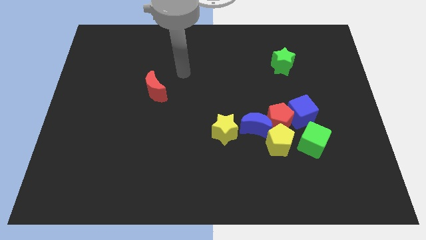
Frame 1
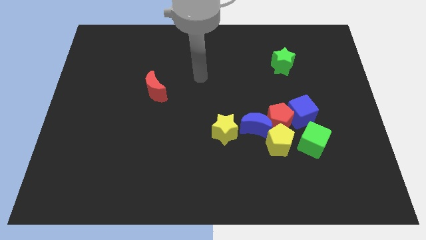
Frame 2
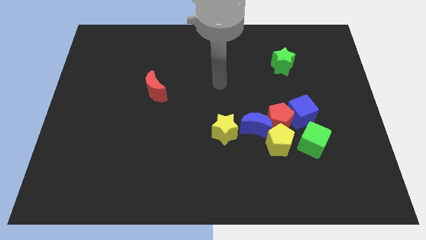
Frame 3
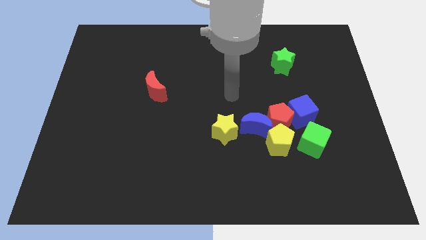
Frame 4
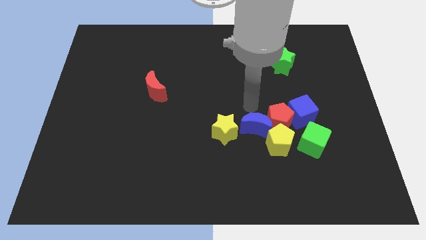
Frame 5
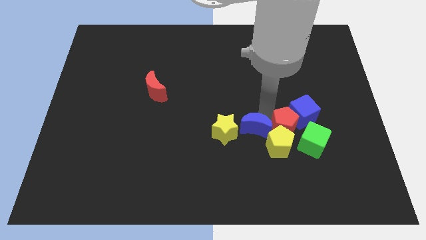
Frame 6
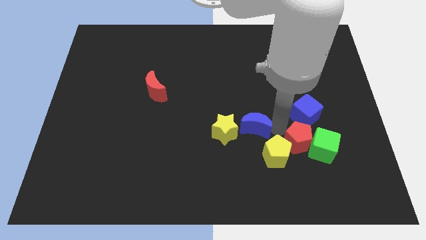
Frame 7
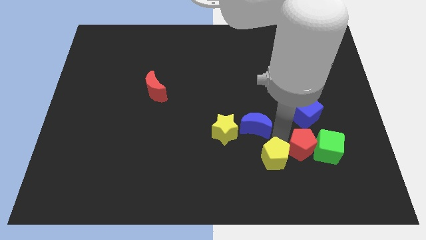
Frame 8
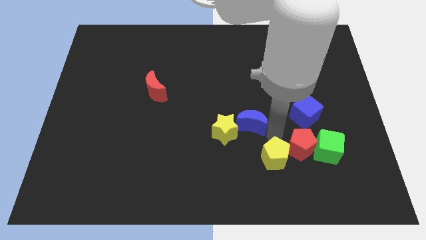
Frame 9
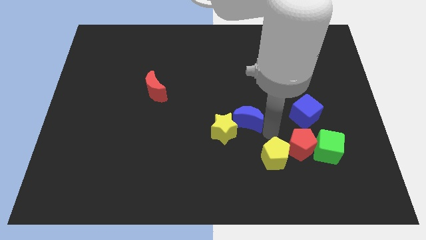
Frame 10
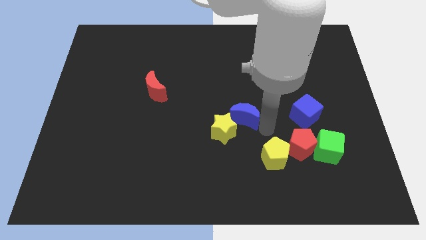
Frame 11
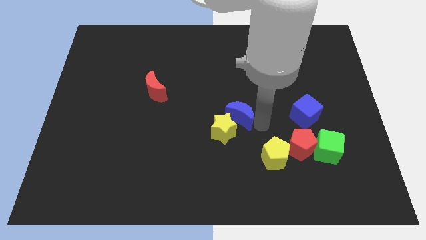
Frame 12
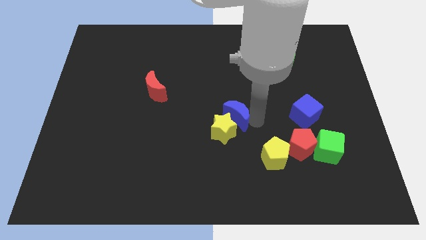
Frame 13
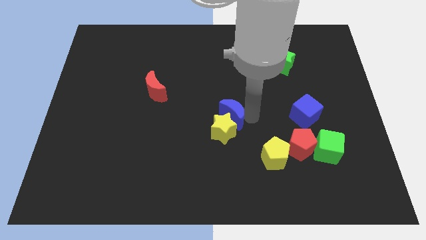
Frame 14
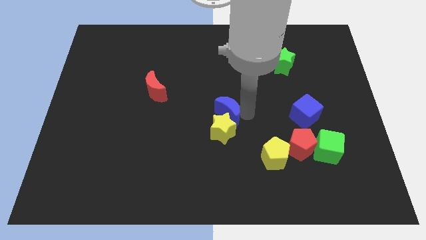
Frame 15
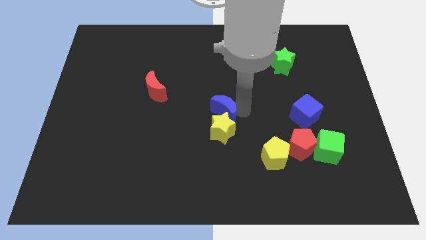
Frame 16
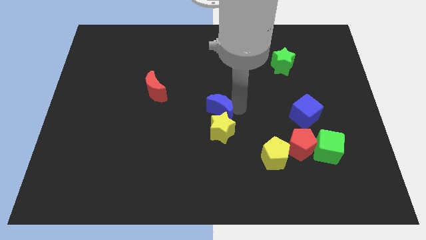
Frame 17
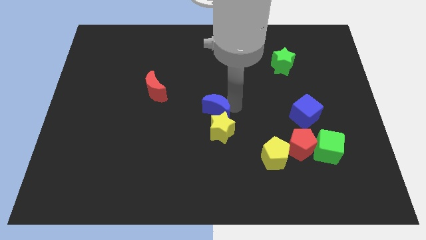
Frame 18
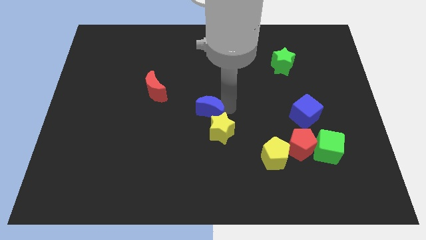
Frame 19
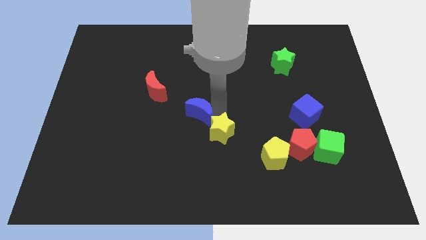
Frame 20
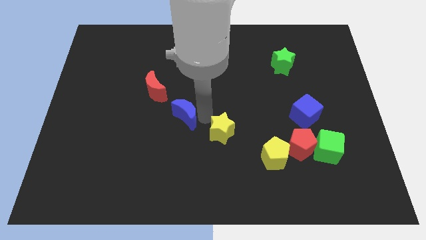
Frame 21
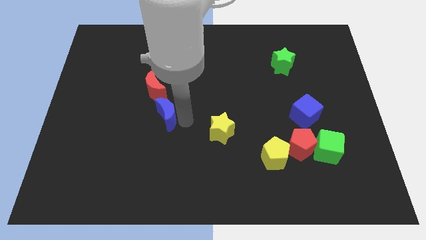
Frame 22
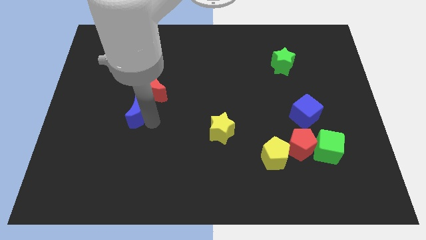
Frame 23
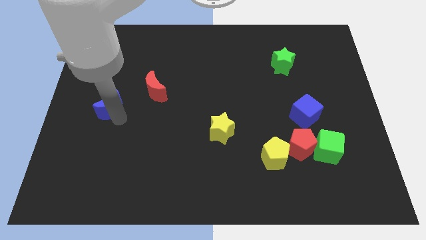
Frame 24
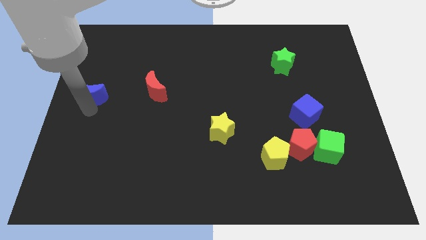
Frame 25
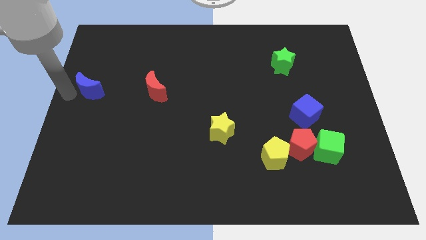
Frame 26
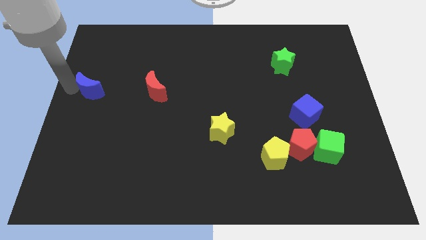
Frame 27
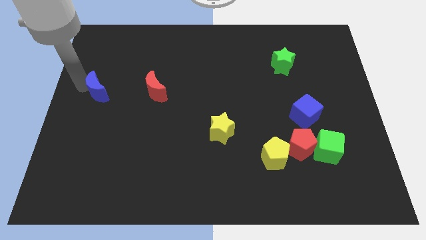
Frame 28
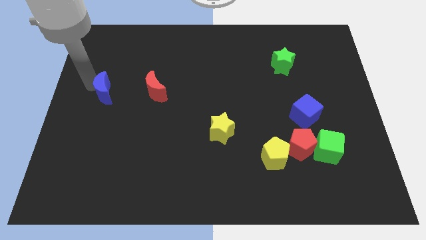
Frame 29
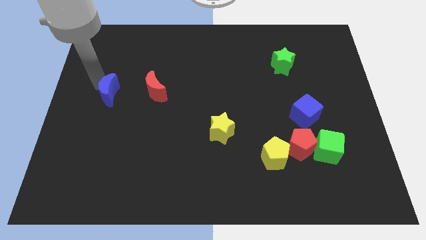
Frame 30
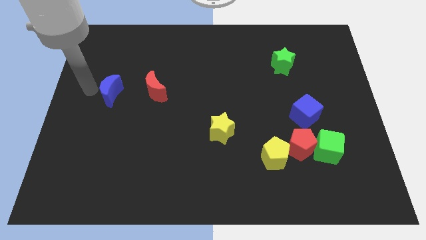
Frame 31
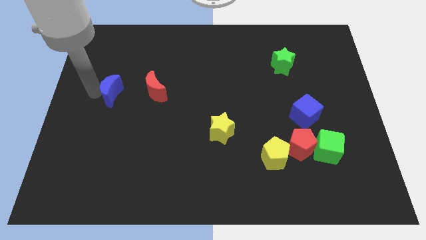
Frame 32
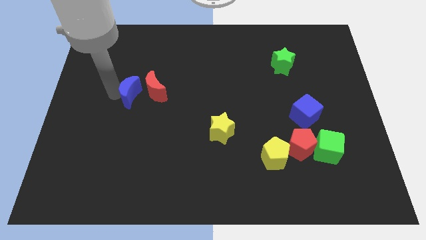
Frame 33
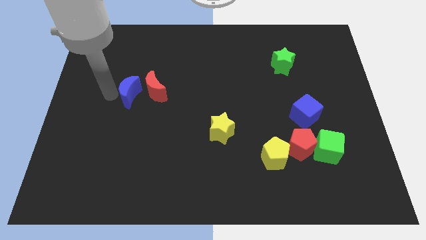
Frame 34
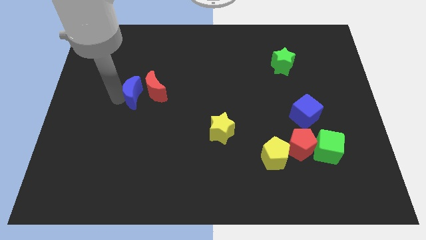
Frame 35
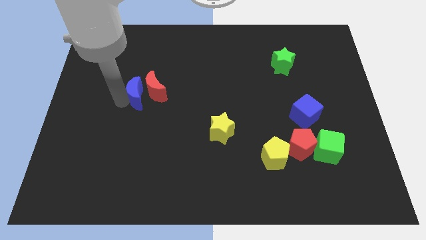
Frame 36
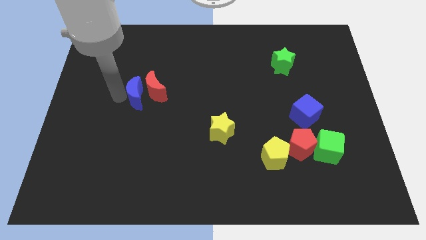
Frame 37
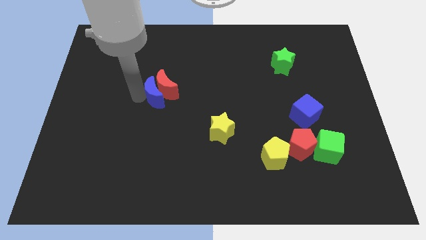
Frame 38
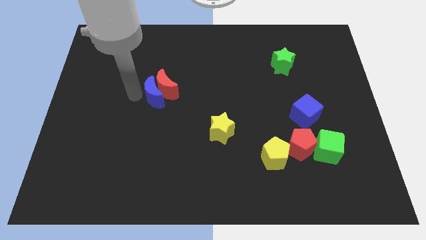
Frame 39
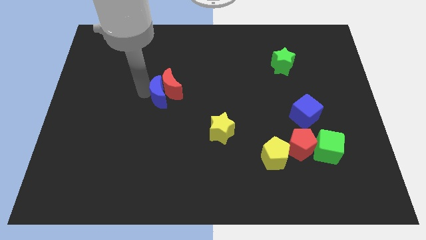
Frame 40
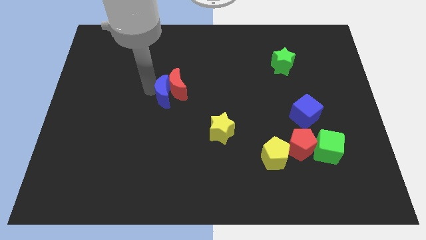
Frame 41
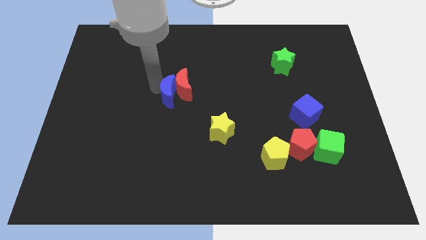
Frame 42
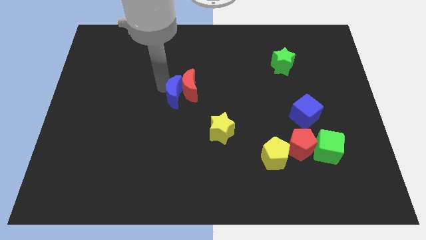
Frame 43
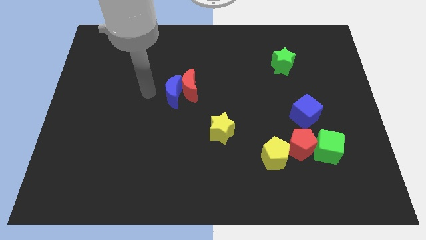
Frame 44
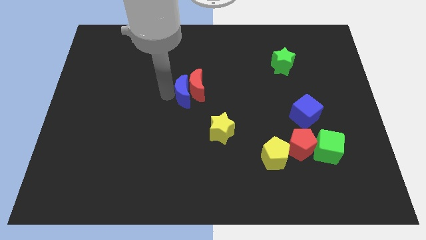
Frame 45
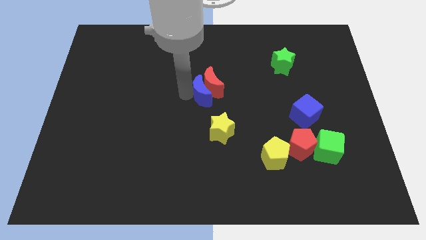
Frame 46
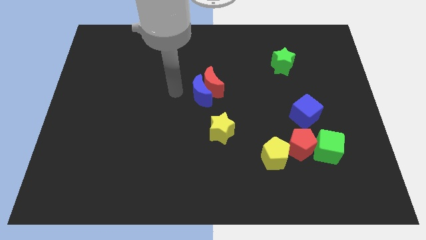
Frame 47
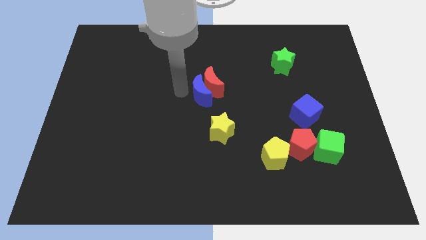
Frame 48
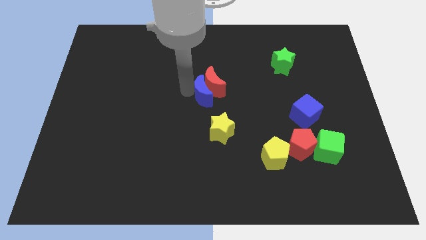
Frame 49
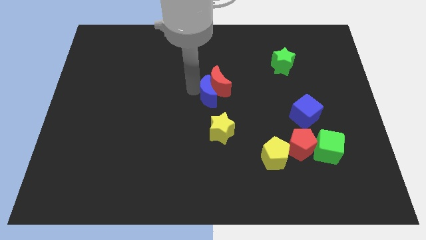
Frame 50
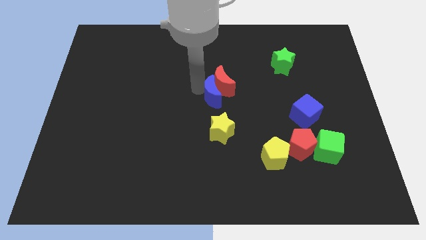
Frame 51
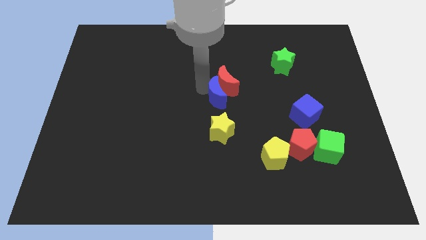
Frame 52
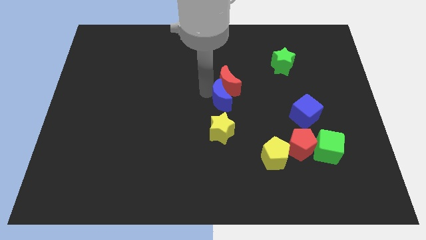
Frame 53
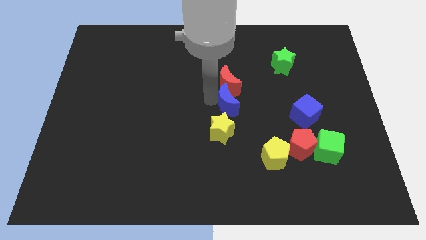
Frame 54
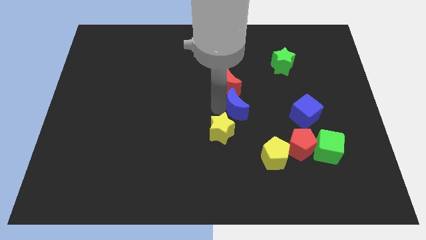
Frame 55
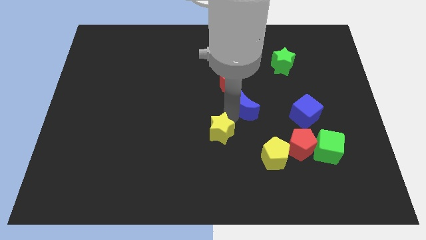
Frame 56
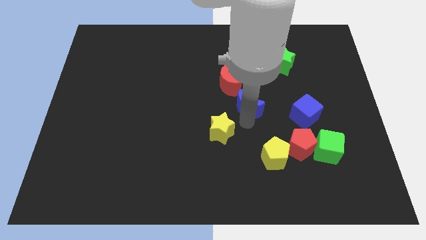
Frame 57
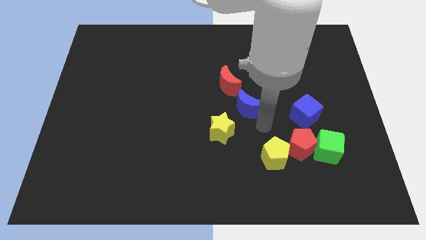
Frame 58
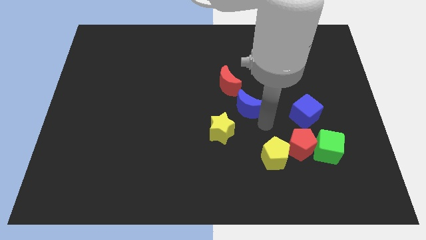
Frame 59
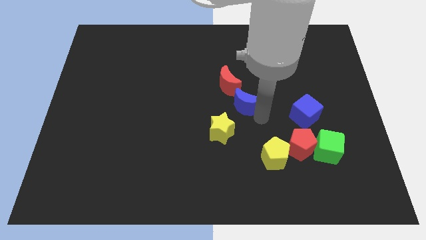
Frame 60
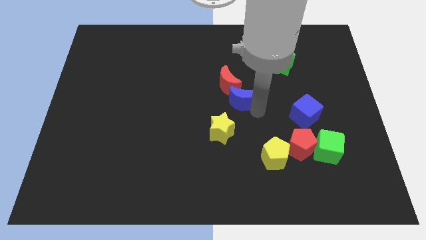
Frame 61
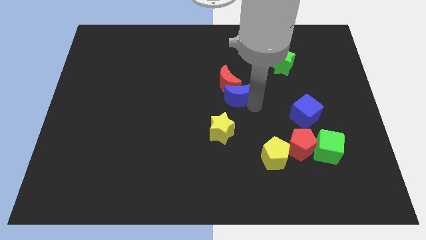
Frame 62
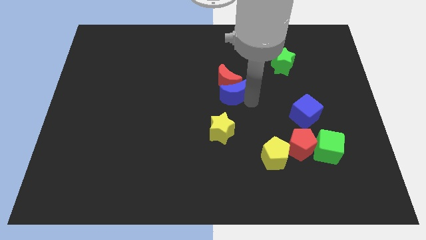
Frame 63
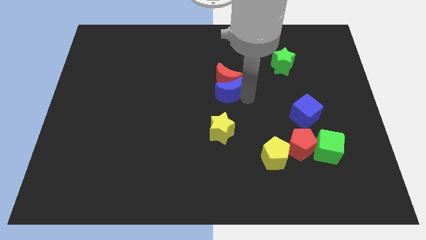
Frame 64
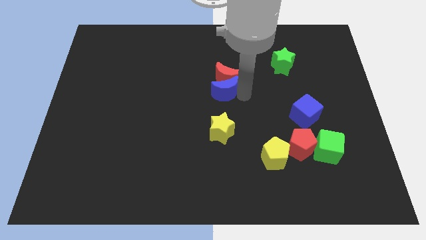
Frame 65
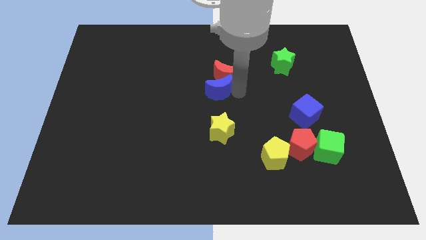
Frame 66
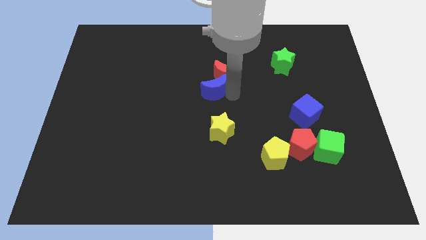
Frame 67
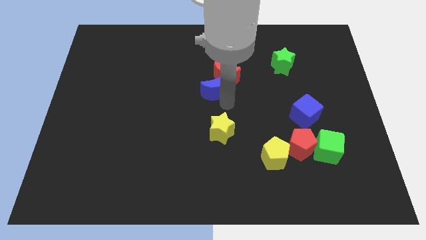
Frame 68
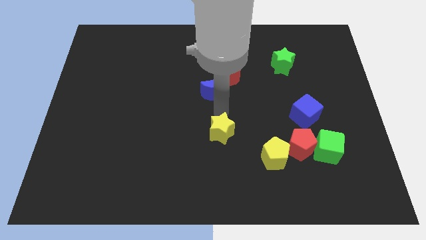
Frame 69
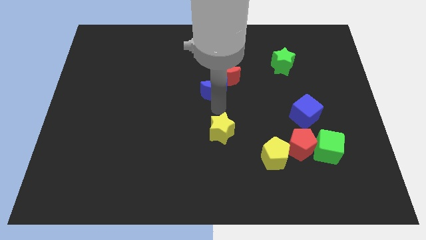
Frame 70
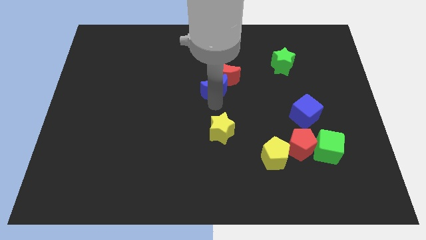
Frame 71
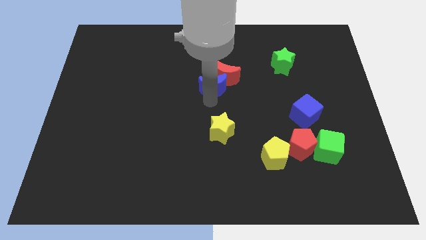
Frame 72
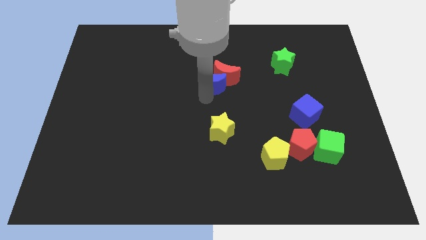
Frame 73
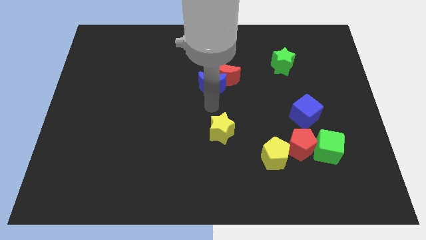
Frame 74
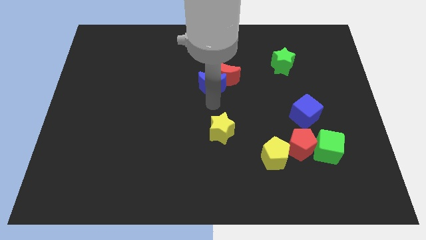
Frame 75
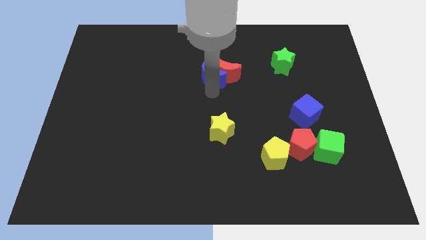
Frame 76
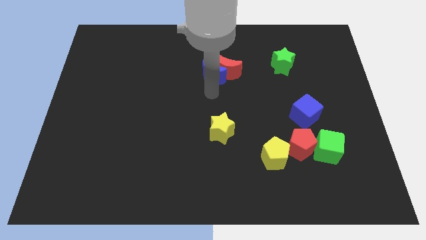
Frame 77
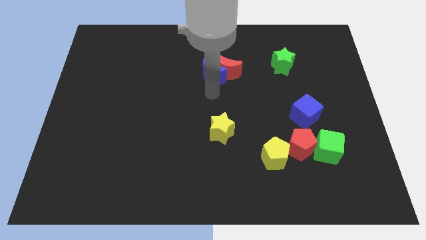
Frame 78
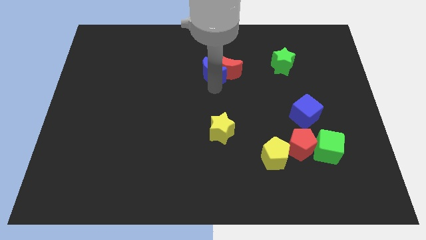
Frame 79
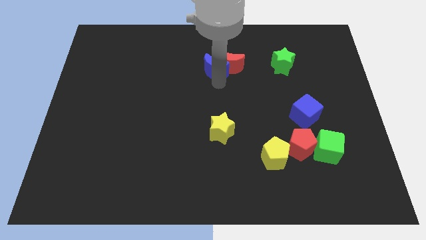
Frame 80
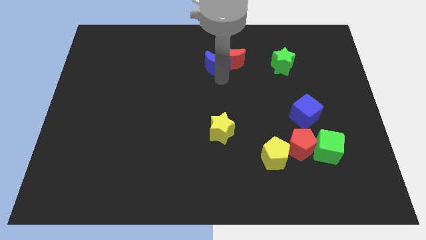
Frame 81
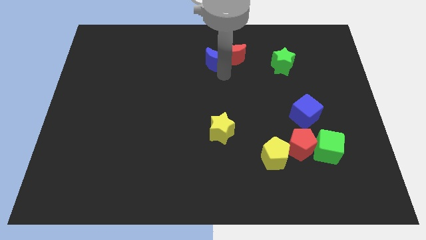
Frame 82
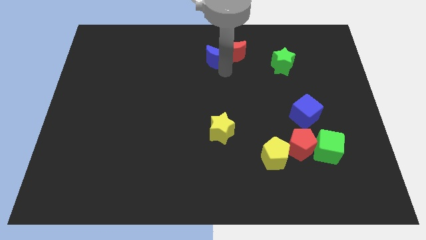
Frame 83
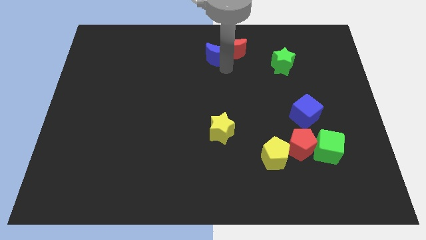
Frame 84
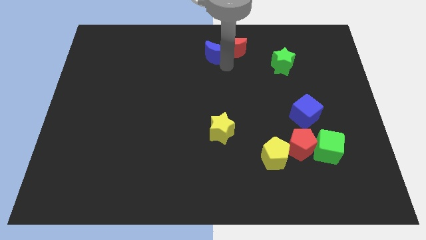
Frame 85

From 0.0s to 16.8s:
slide the blue moon to the top side
